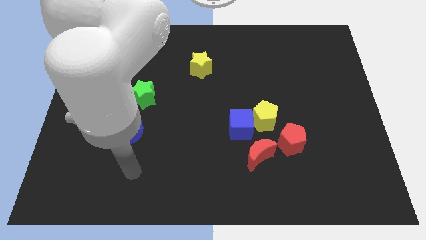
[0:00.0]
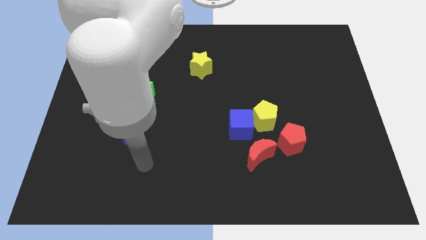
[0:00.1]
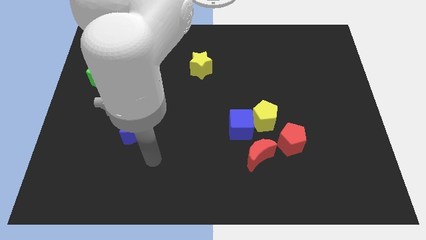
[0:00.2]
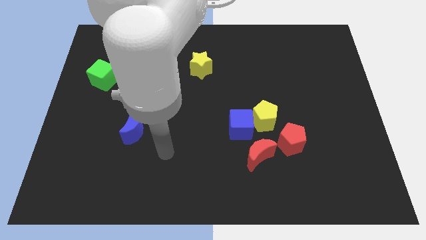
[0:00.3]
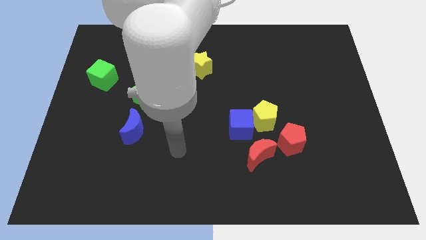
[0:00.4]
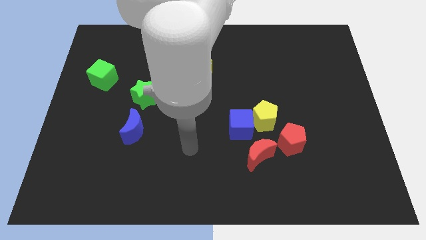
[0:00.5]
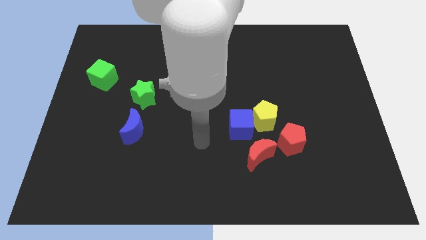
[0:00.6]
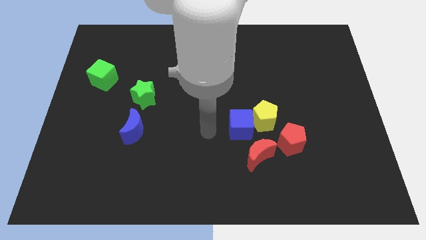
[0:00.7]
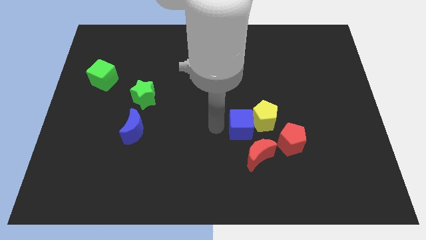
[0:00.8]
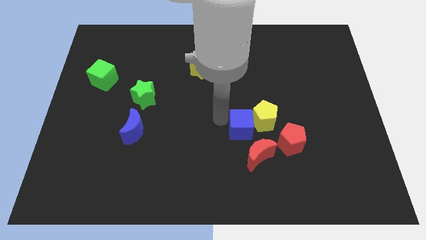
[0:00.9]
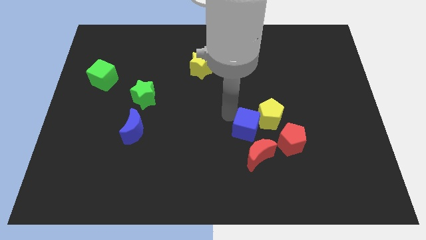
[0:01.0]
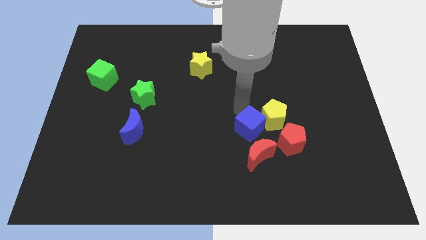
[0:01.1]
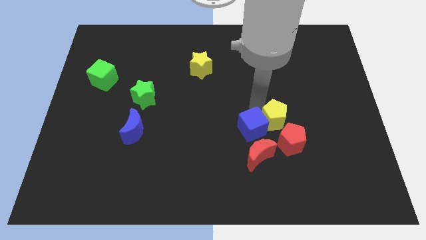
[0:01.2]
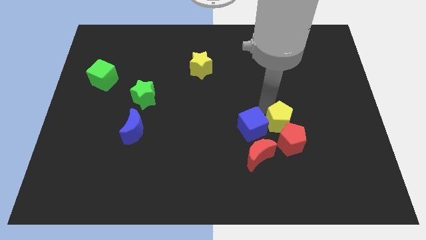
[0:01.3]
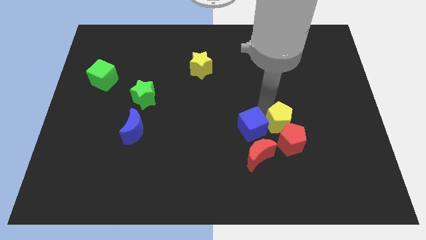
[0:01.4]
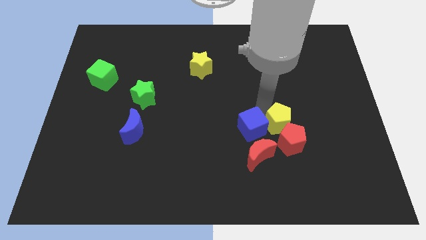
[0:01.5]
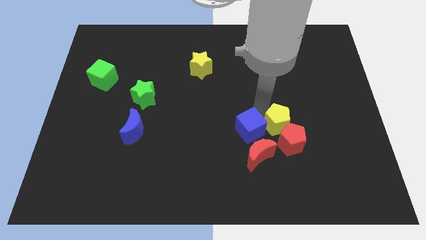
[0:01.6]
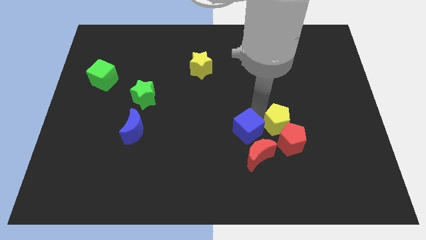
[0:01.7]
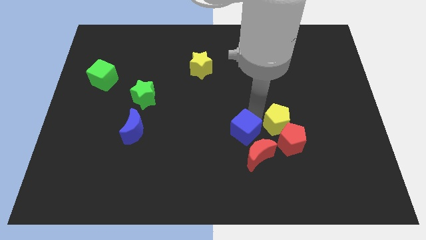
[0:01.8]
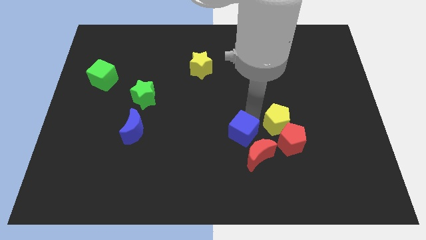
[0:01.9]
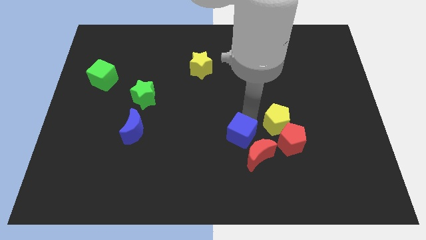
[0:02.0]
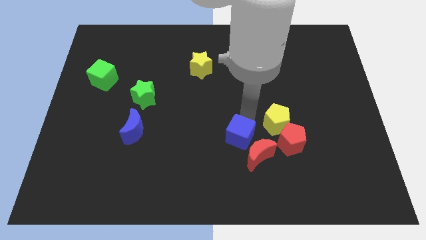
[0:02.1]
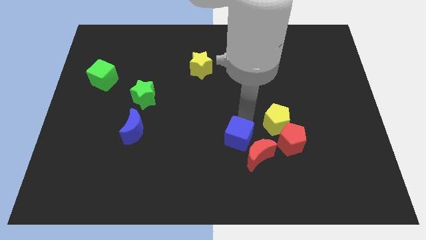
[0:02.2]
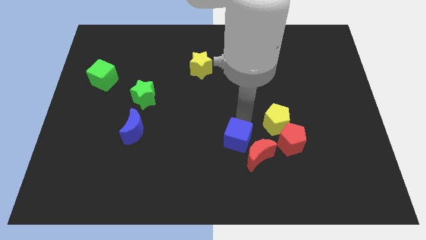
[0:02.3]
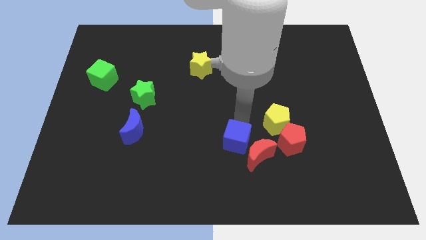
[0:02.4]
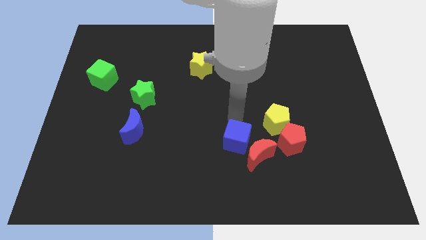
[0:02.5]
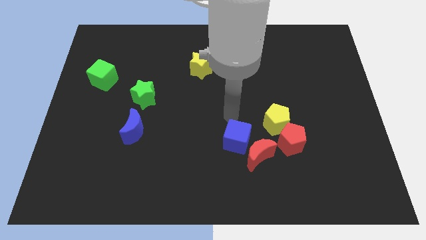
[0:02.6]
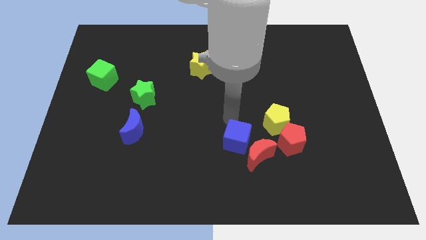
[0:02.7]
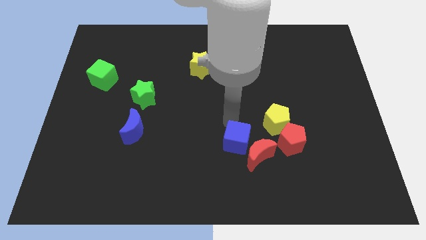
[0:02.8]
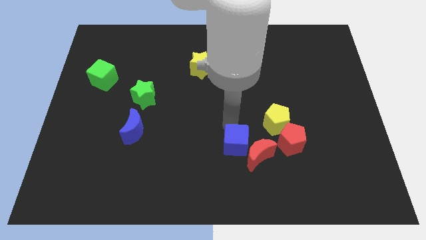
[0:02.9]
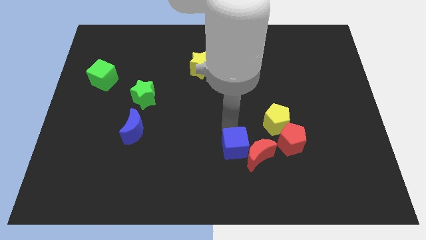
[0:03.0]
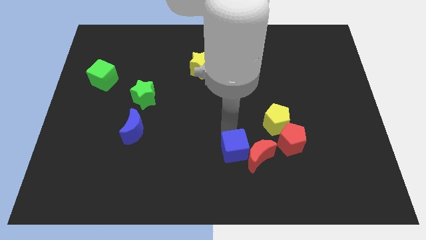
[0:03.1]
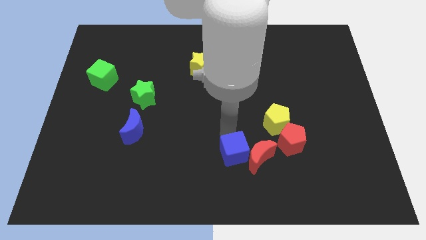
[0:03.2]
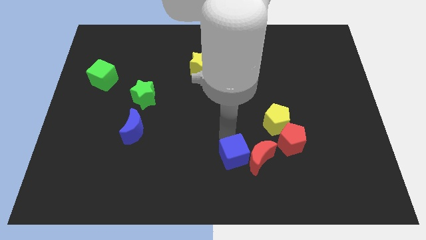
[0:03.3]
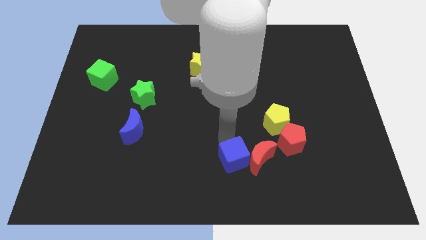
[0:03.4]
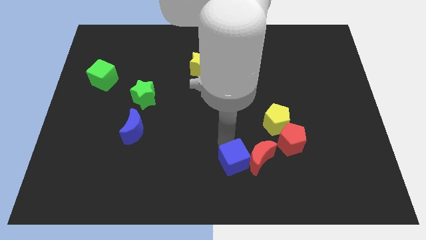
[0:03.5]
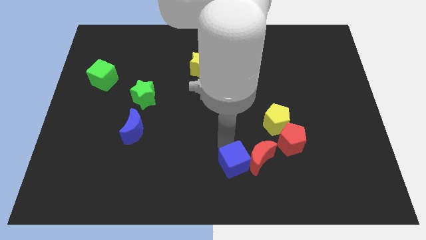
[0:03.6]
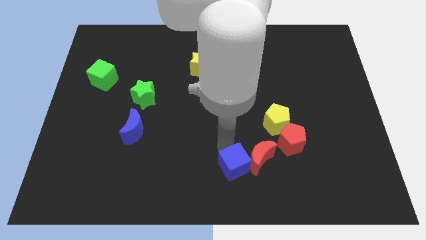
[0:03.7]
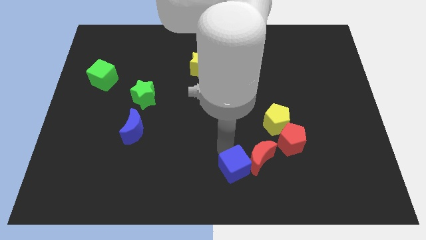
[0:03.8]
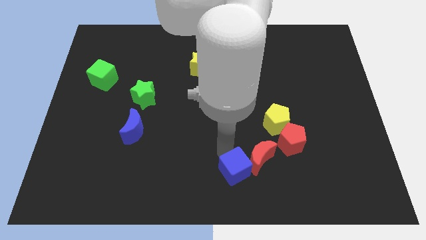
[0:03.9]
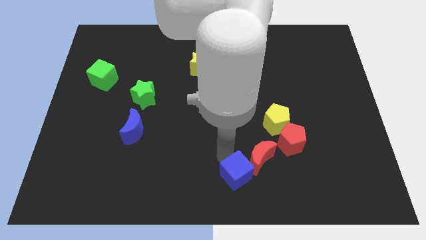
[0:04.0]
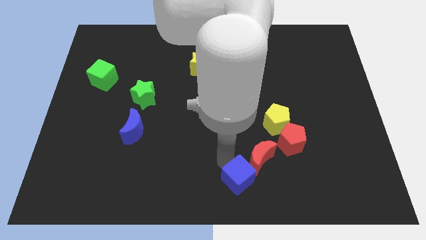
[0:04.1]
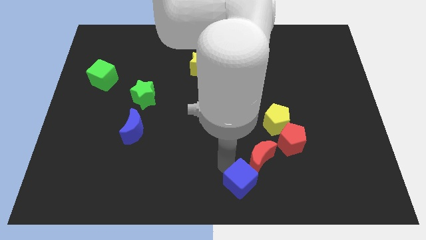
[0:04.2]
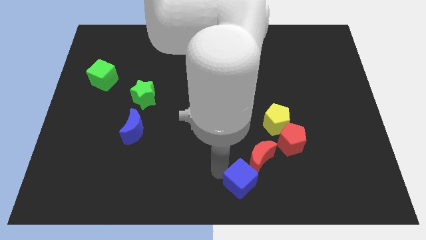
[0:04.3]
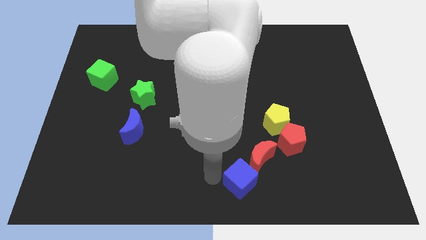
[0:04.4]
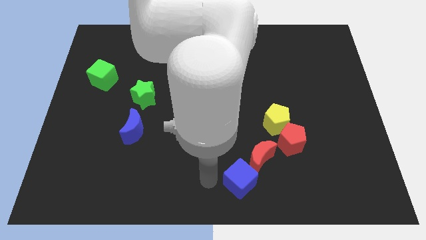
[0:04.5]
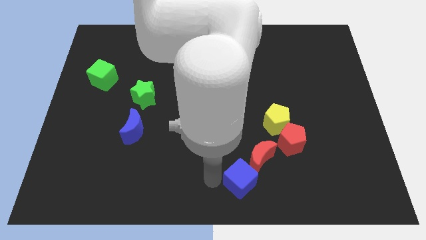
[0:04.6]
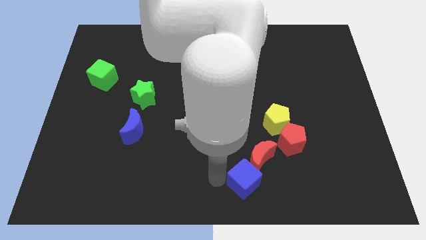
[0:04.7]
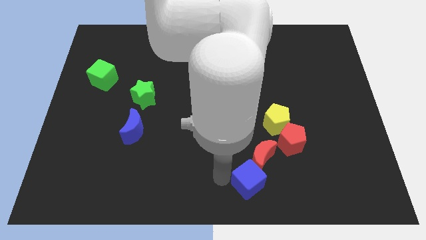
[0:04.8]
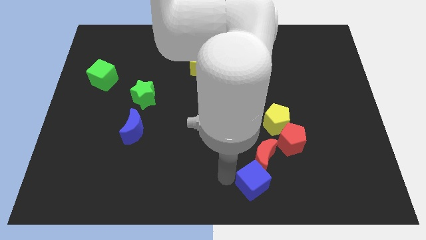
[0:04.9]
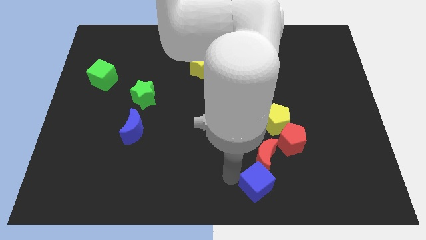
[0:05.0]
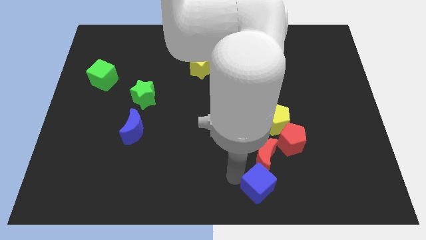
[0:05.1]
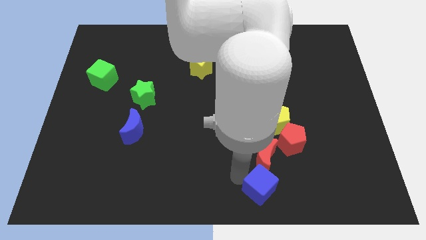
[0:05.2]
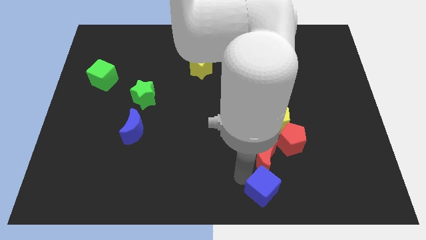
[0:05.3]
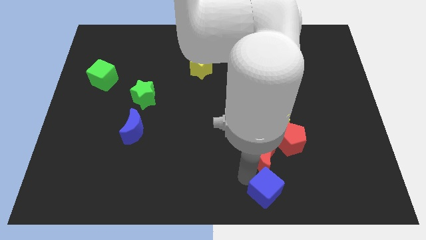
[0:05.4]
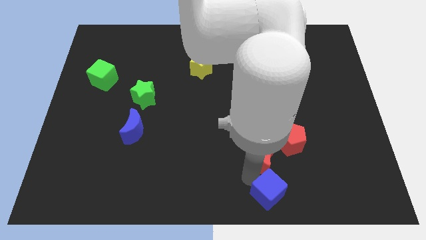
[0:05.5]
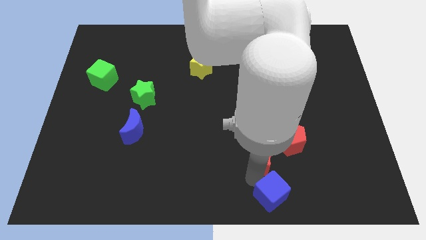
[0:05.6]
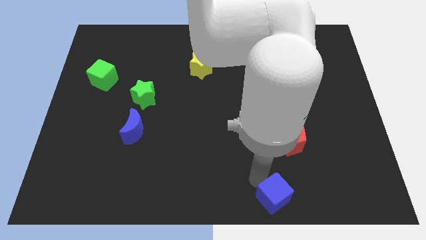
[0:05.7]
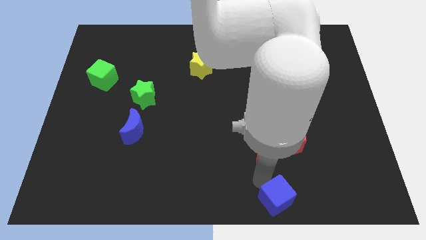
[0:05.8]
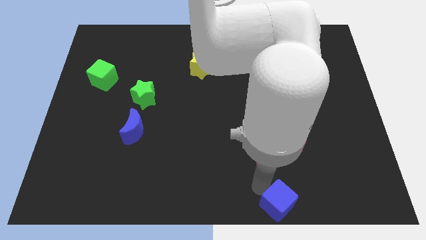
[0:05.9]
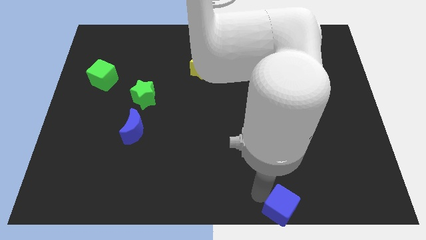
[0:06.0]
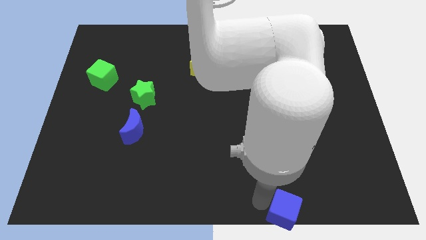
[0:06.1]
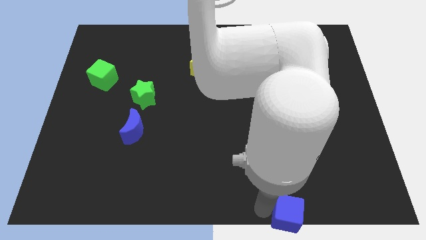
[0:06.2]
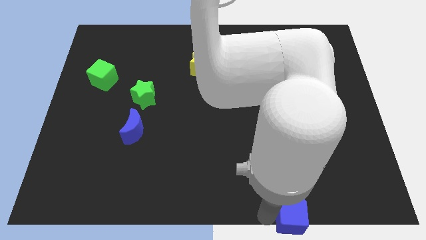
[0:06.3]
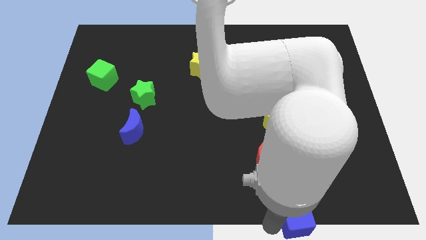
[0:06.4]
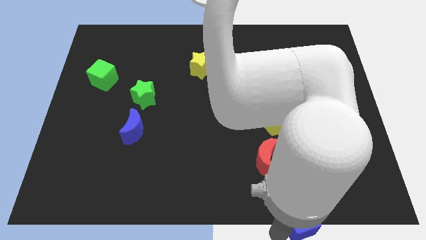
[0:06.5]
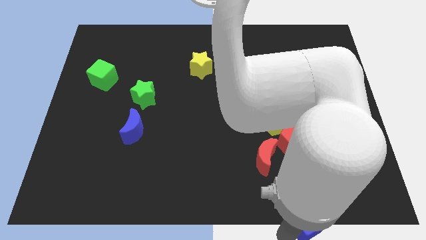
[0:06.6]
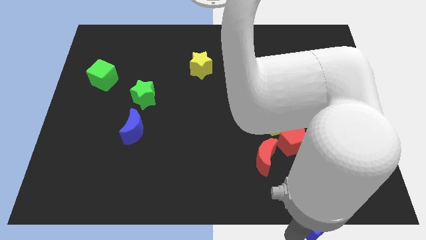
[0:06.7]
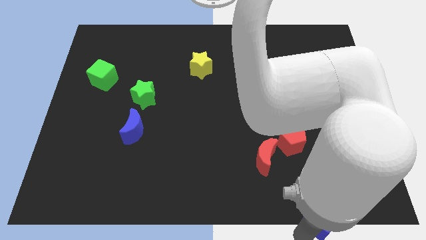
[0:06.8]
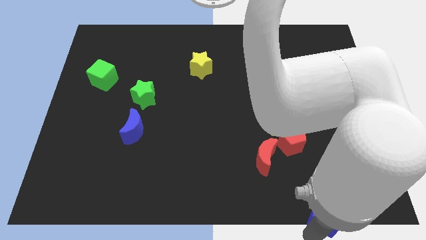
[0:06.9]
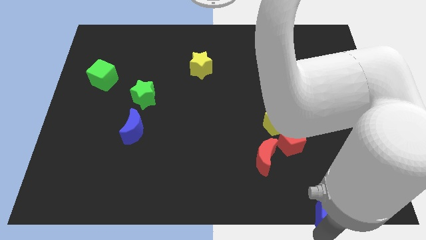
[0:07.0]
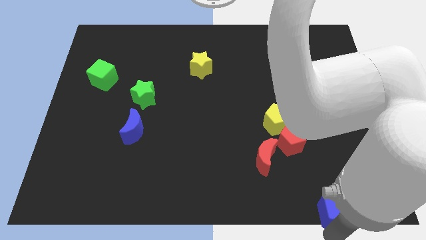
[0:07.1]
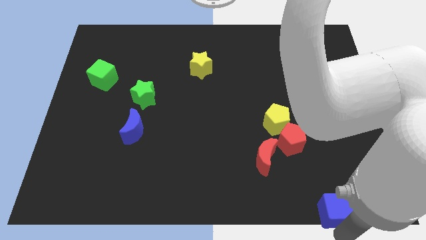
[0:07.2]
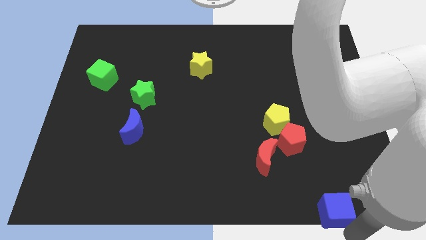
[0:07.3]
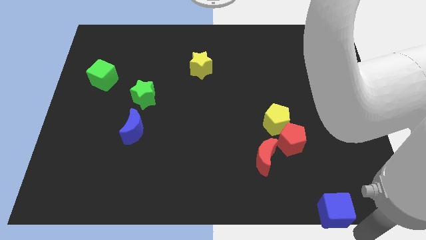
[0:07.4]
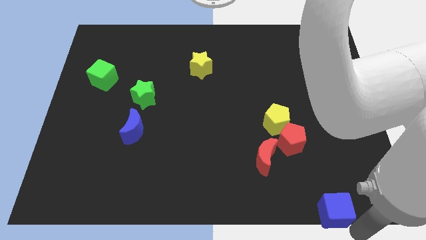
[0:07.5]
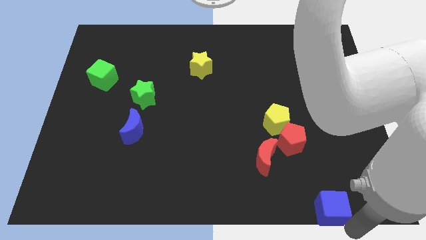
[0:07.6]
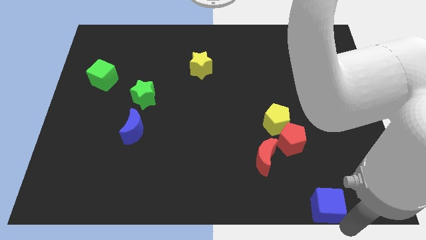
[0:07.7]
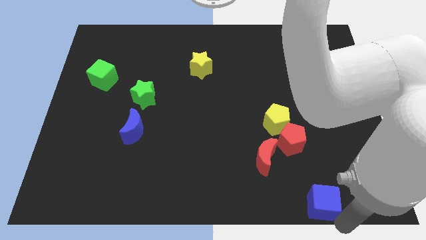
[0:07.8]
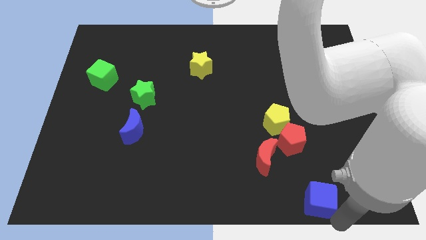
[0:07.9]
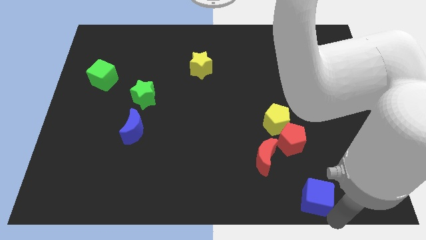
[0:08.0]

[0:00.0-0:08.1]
push the blue cube to the bottom right of the red moon
